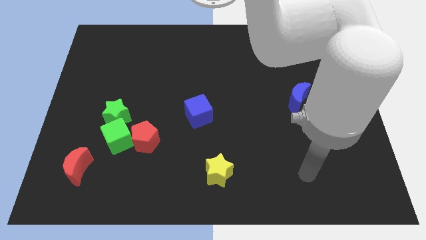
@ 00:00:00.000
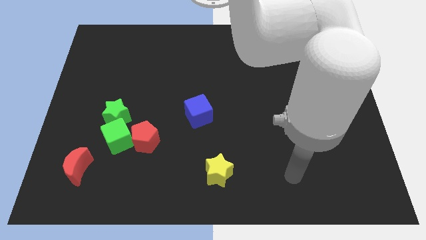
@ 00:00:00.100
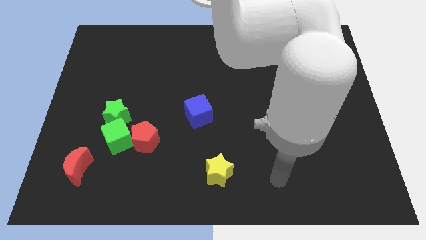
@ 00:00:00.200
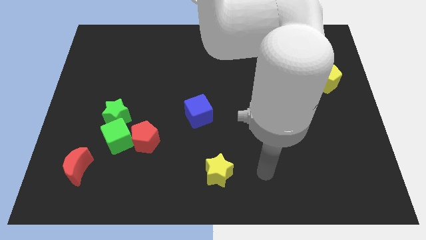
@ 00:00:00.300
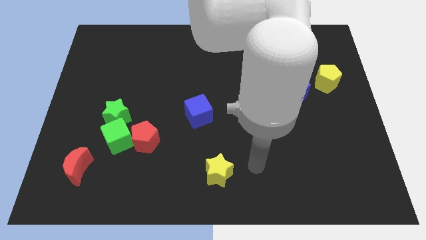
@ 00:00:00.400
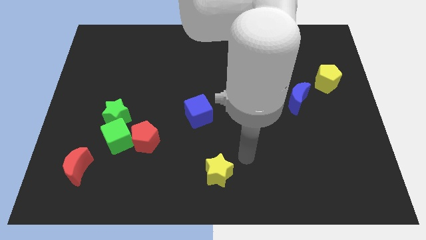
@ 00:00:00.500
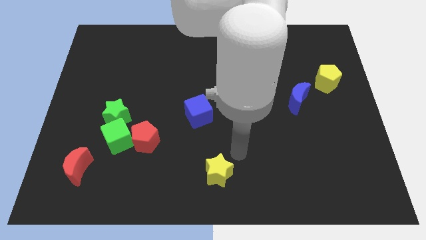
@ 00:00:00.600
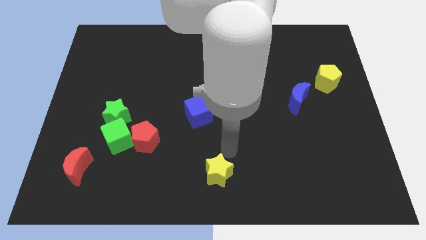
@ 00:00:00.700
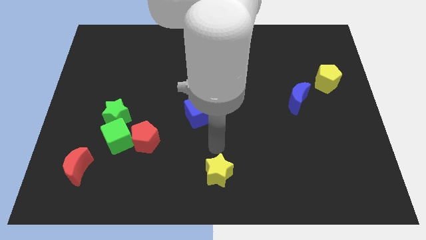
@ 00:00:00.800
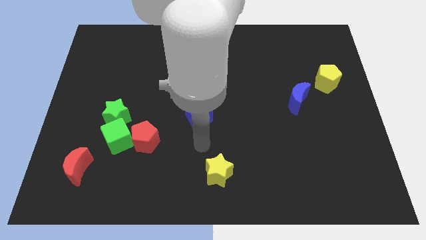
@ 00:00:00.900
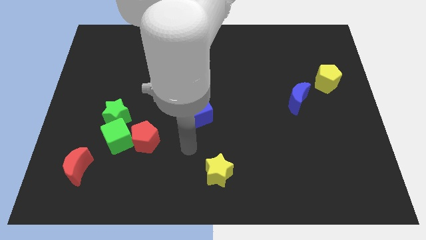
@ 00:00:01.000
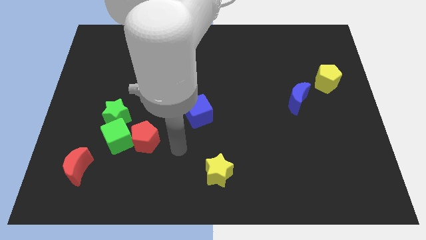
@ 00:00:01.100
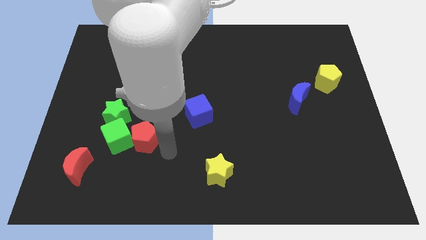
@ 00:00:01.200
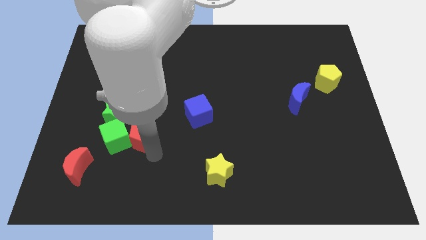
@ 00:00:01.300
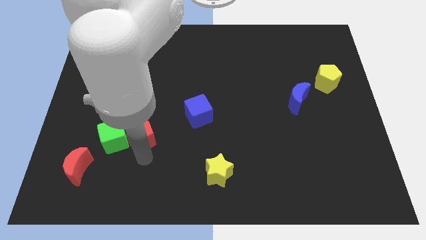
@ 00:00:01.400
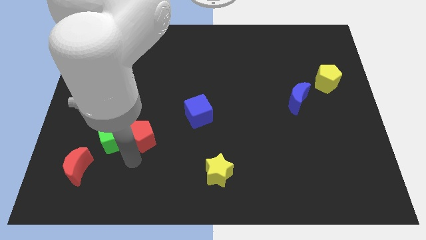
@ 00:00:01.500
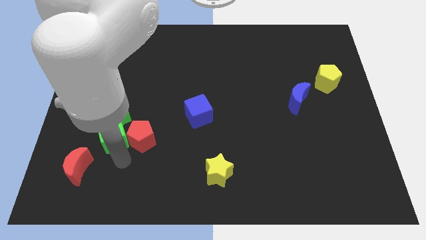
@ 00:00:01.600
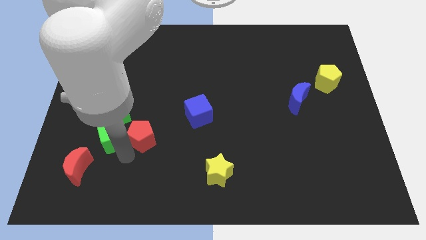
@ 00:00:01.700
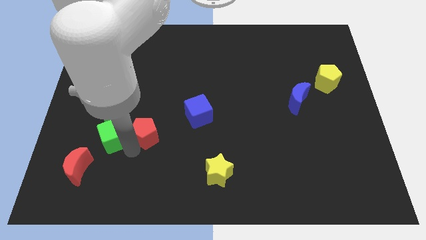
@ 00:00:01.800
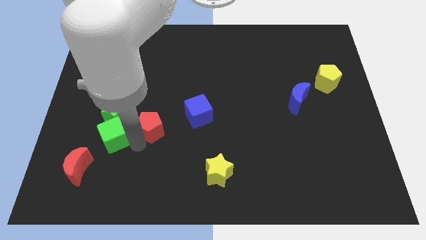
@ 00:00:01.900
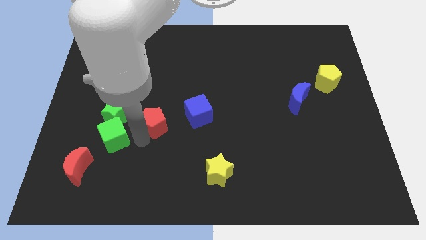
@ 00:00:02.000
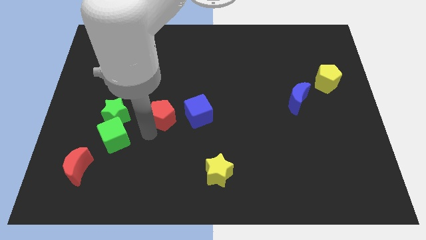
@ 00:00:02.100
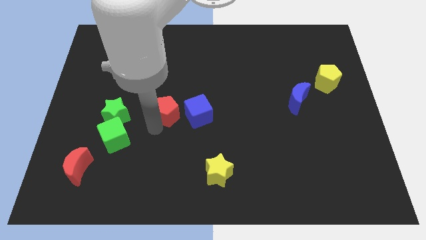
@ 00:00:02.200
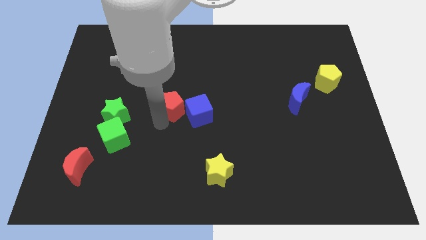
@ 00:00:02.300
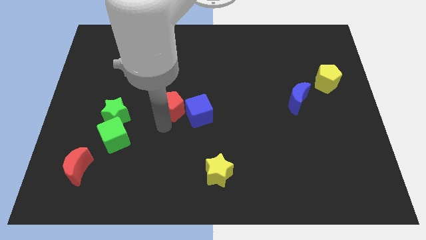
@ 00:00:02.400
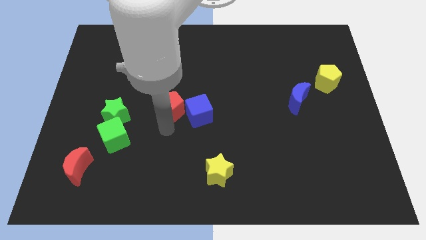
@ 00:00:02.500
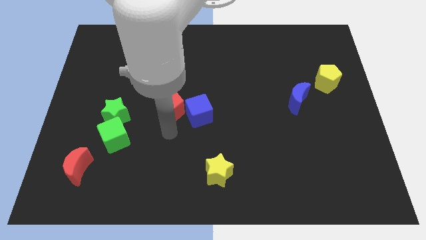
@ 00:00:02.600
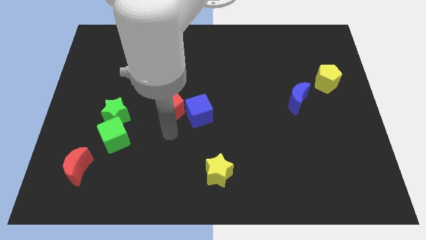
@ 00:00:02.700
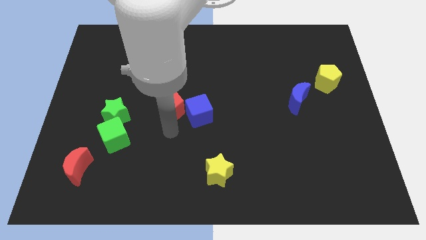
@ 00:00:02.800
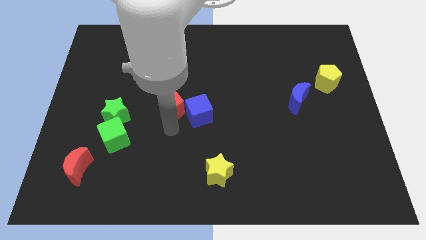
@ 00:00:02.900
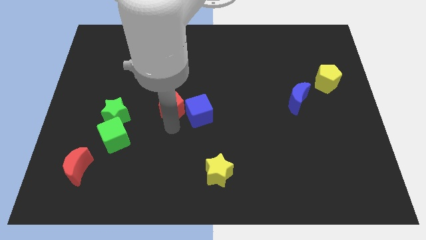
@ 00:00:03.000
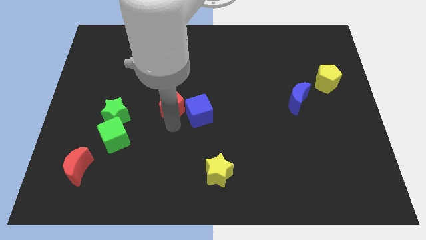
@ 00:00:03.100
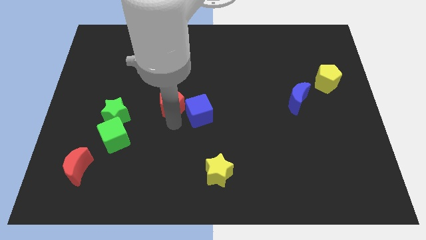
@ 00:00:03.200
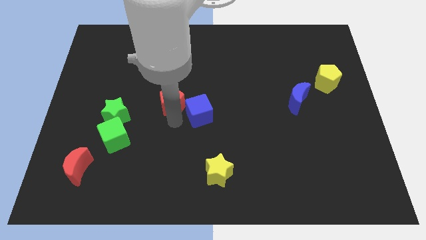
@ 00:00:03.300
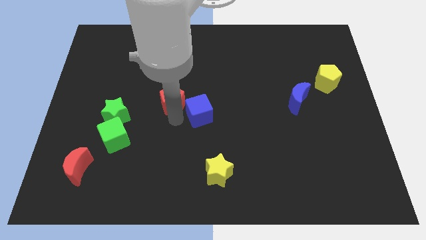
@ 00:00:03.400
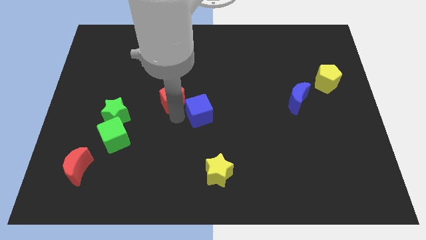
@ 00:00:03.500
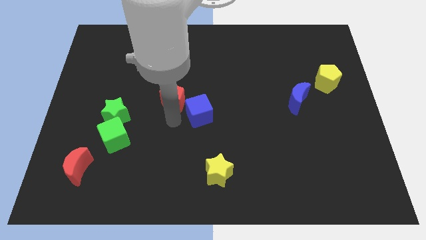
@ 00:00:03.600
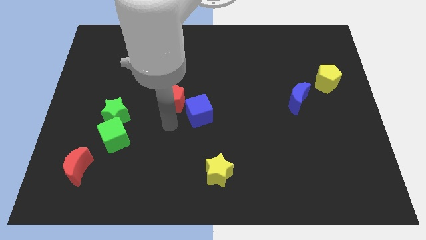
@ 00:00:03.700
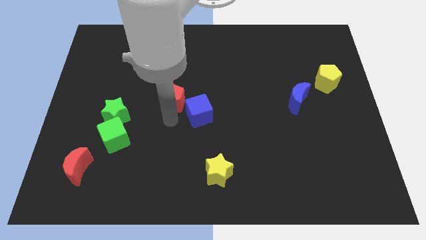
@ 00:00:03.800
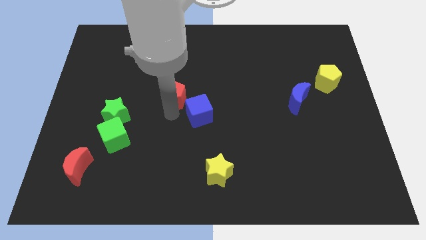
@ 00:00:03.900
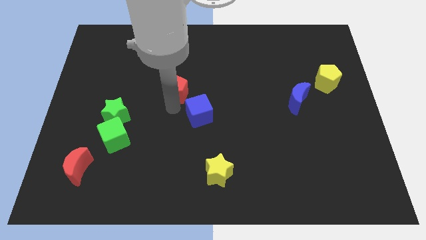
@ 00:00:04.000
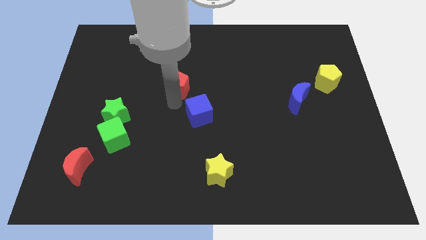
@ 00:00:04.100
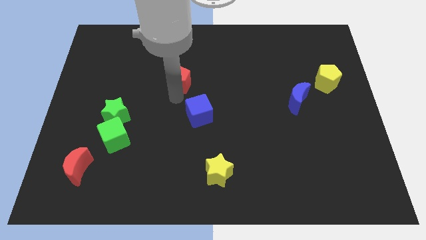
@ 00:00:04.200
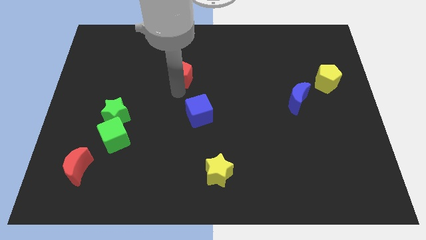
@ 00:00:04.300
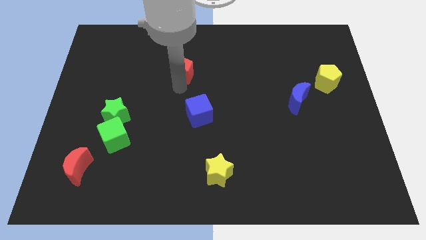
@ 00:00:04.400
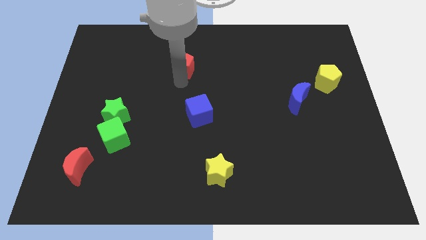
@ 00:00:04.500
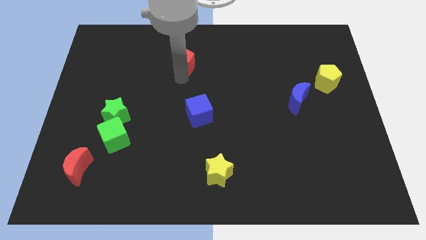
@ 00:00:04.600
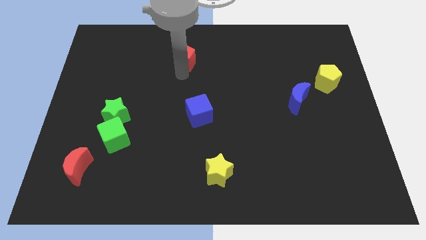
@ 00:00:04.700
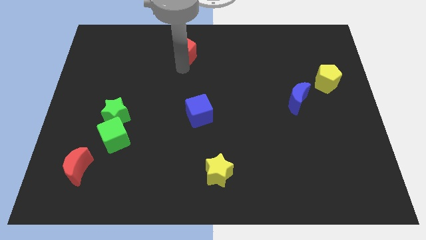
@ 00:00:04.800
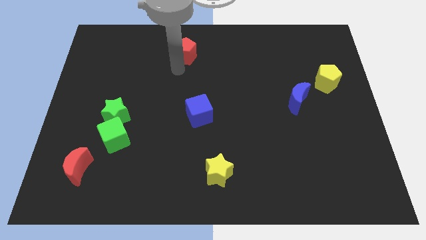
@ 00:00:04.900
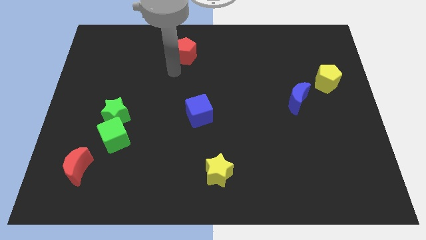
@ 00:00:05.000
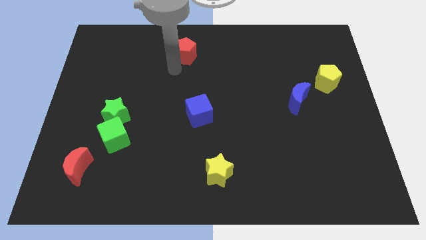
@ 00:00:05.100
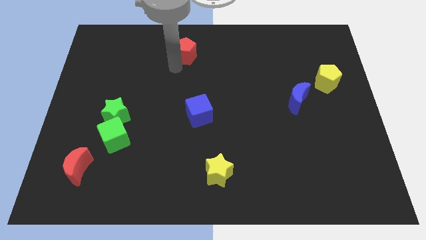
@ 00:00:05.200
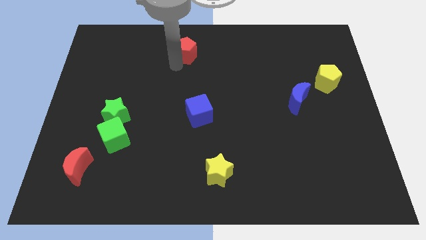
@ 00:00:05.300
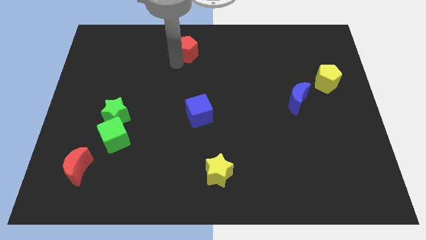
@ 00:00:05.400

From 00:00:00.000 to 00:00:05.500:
push the red pentagon to the top side

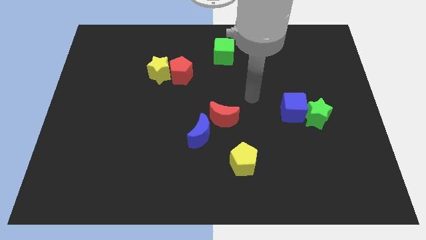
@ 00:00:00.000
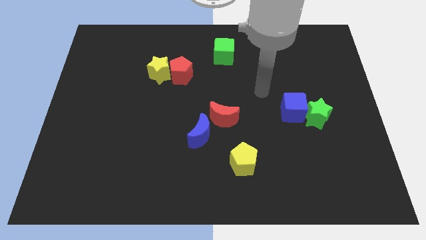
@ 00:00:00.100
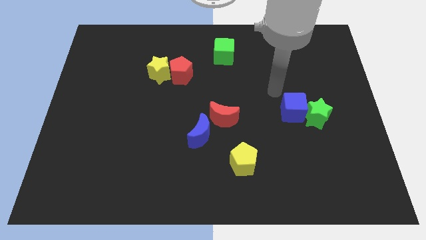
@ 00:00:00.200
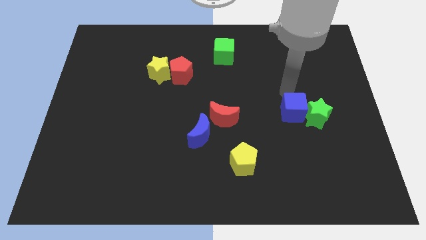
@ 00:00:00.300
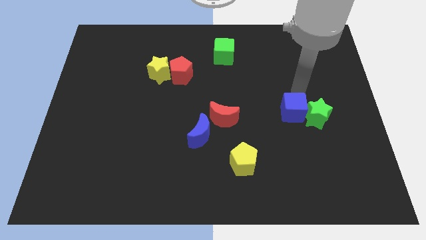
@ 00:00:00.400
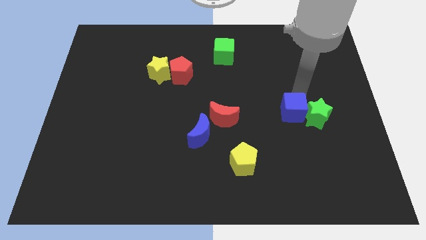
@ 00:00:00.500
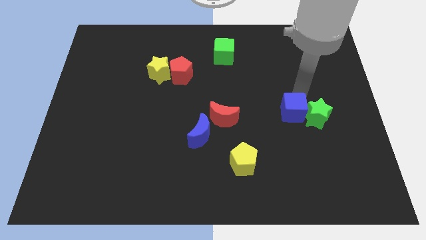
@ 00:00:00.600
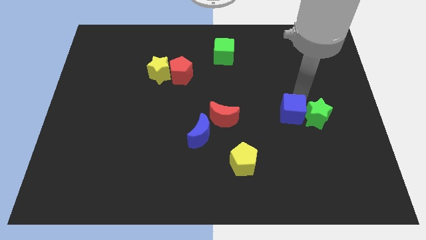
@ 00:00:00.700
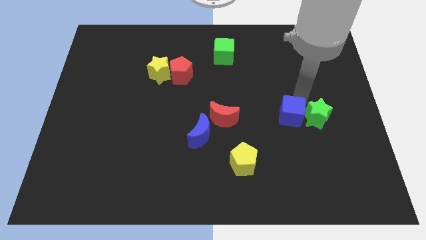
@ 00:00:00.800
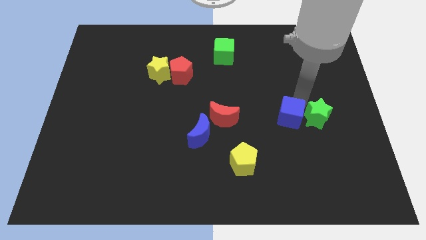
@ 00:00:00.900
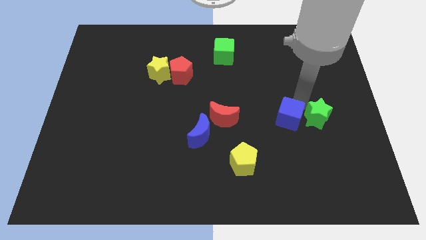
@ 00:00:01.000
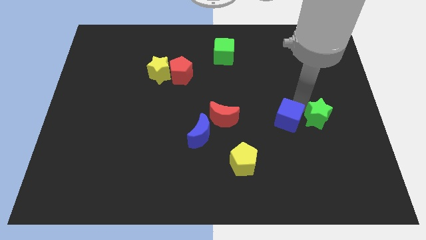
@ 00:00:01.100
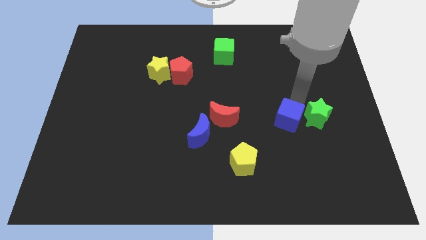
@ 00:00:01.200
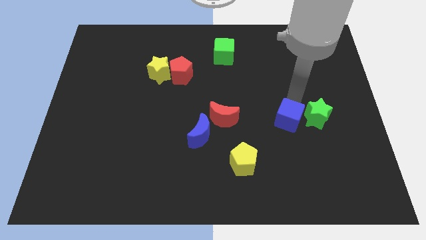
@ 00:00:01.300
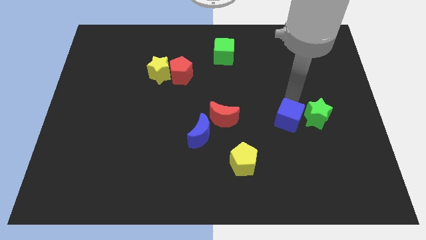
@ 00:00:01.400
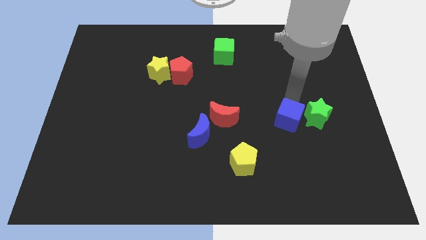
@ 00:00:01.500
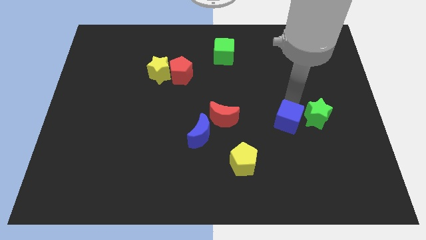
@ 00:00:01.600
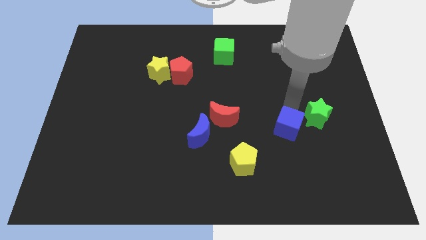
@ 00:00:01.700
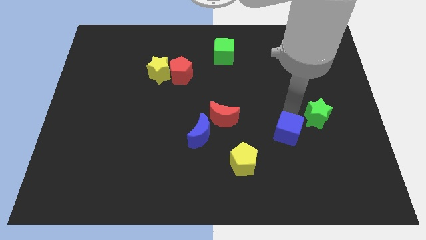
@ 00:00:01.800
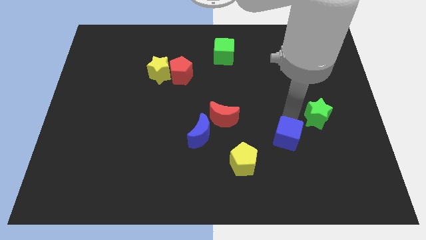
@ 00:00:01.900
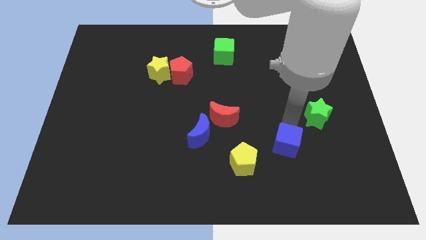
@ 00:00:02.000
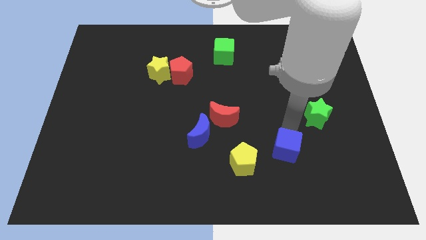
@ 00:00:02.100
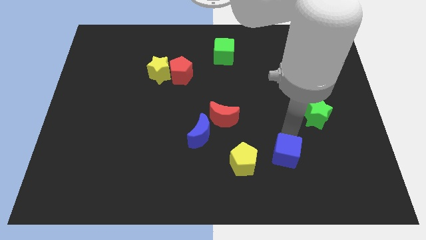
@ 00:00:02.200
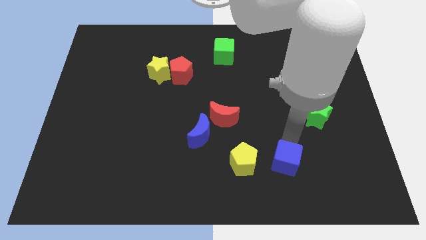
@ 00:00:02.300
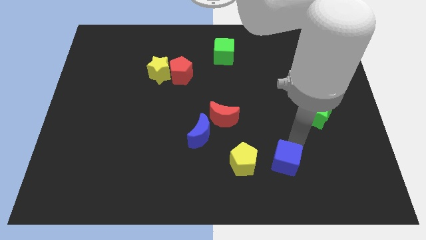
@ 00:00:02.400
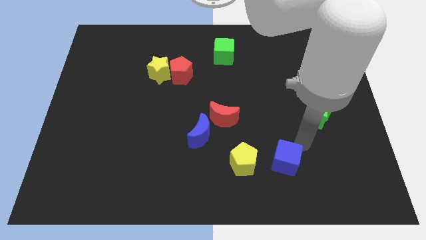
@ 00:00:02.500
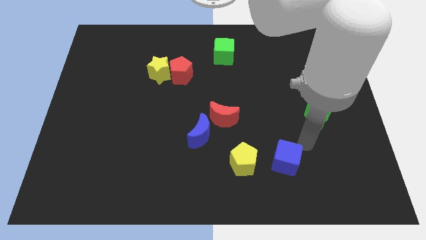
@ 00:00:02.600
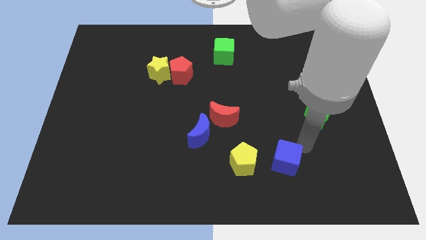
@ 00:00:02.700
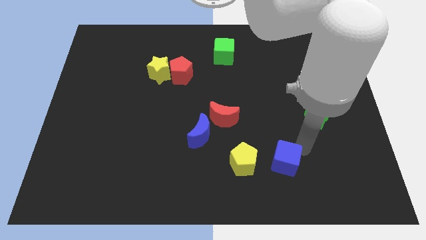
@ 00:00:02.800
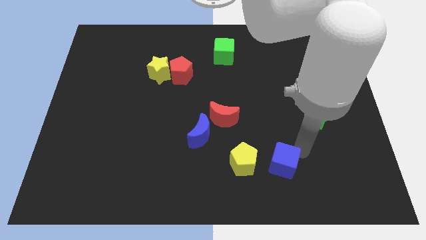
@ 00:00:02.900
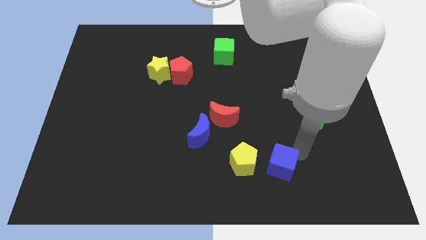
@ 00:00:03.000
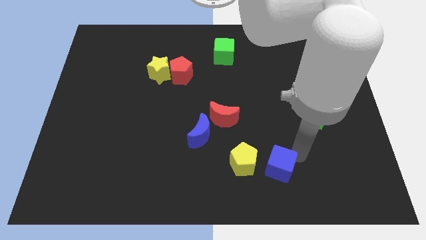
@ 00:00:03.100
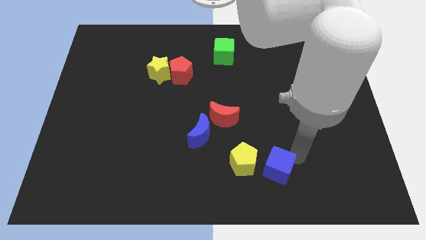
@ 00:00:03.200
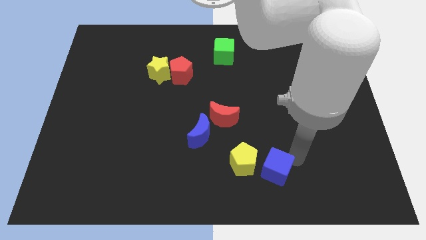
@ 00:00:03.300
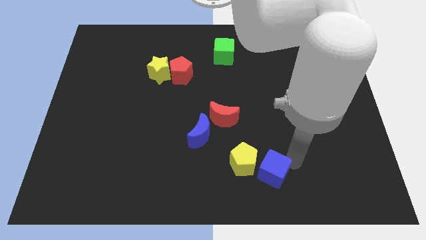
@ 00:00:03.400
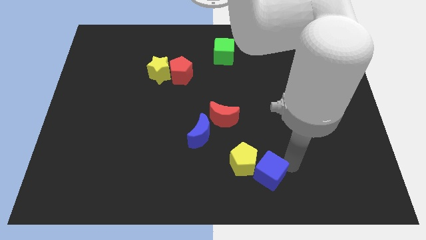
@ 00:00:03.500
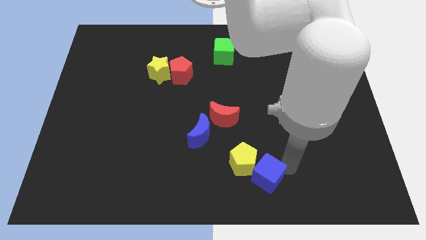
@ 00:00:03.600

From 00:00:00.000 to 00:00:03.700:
push the blue cube to the bottom side
